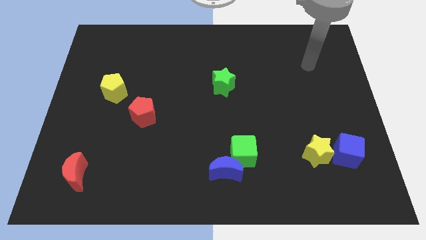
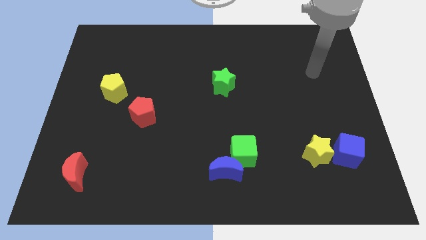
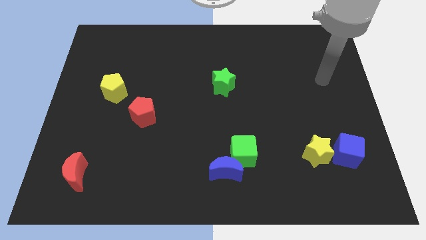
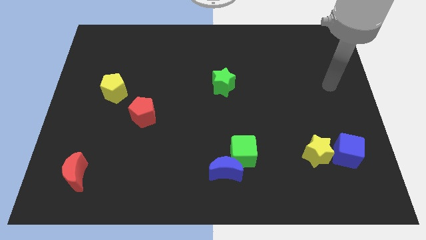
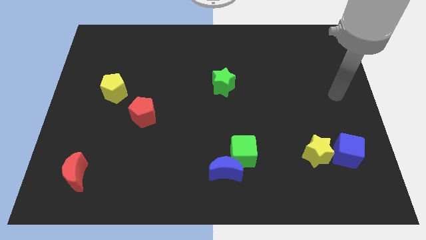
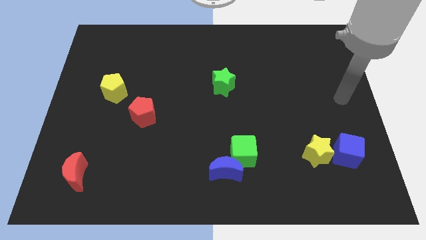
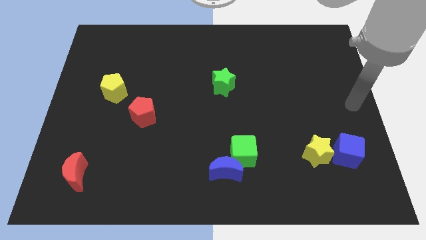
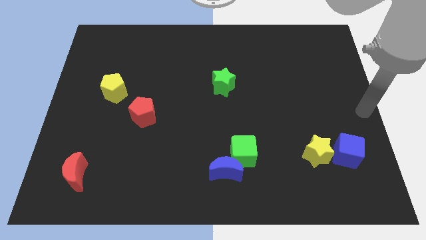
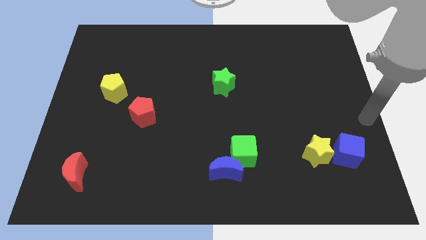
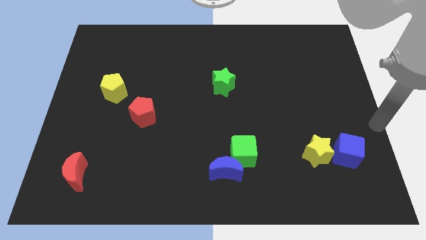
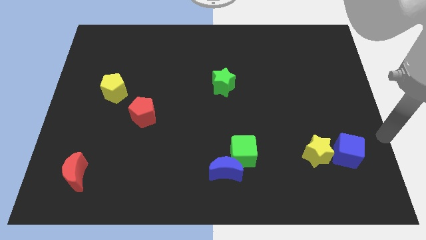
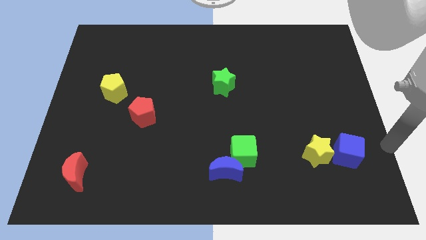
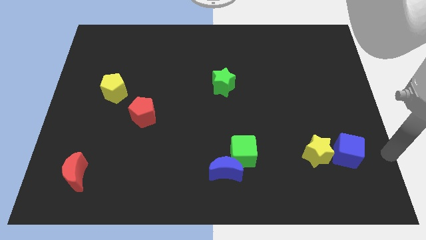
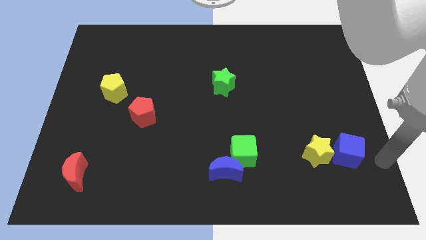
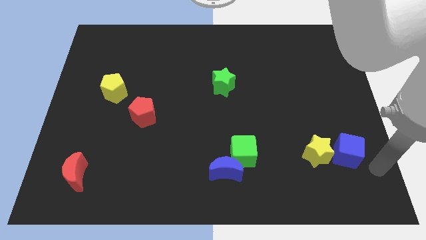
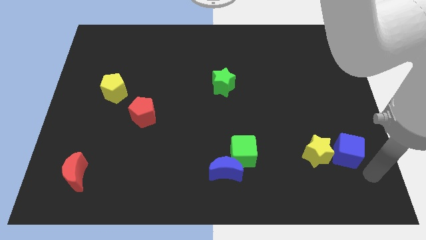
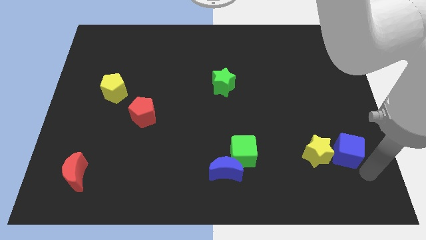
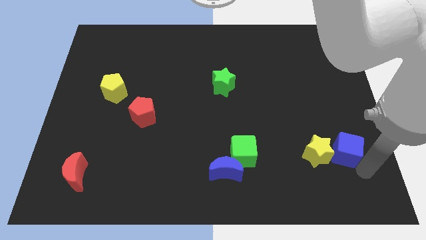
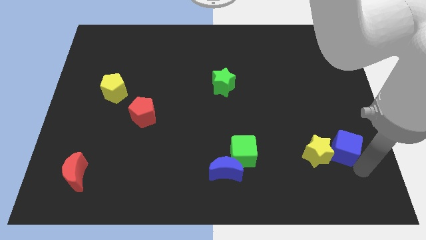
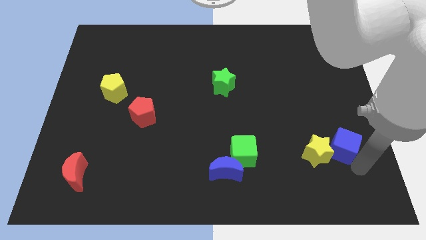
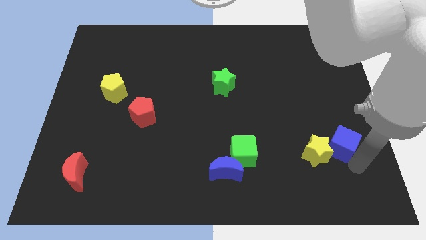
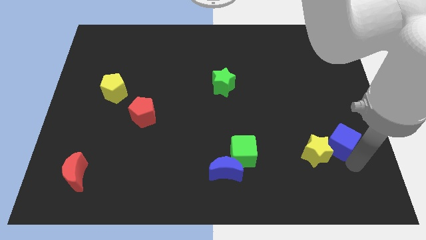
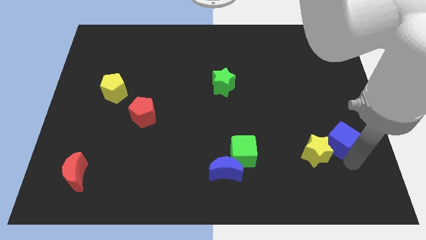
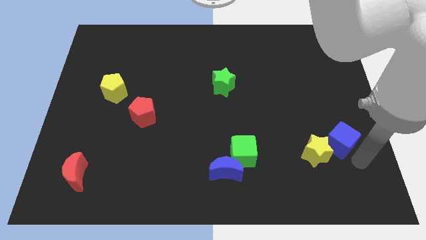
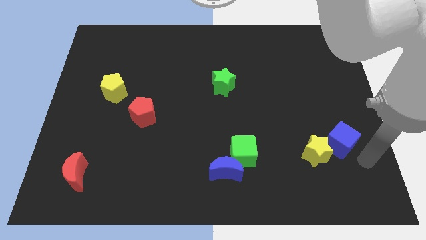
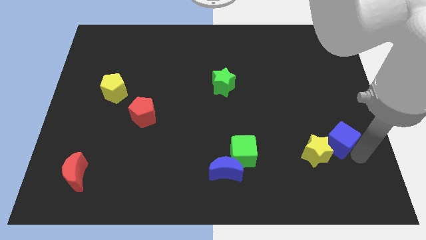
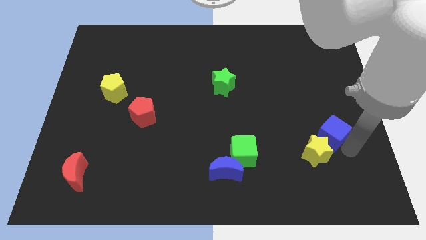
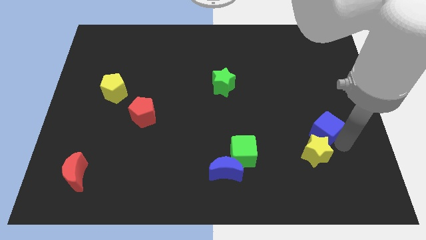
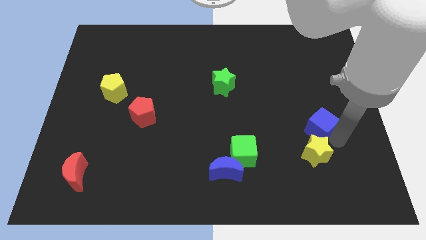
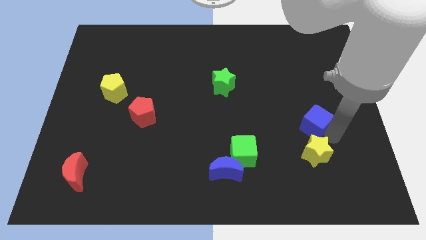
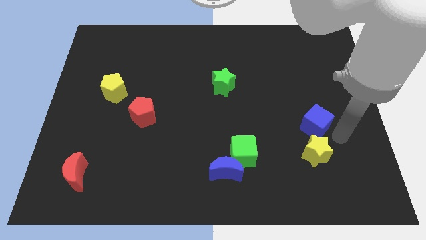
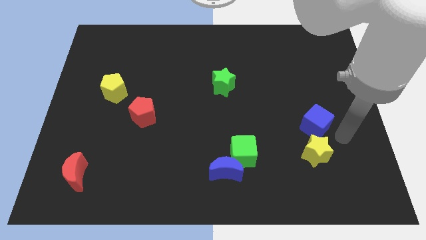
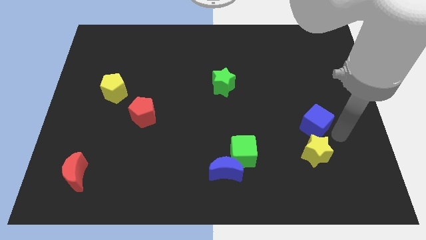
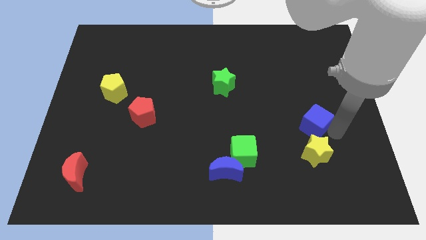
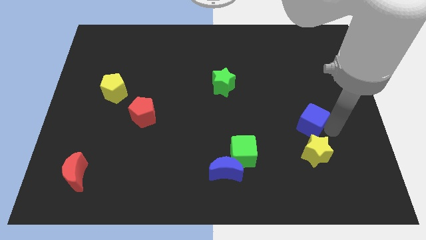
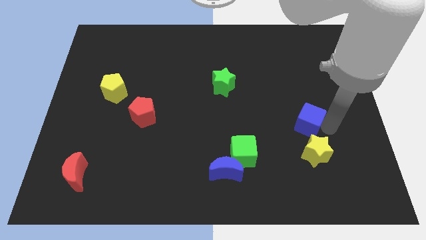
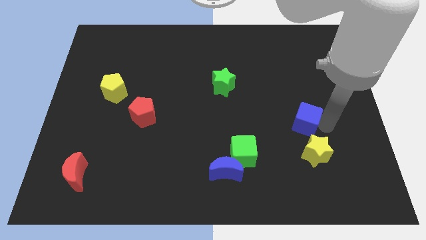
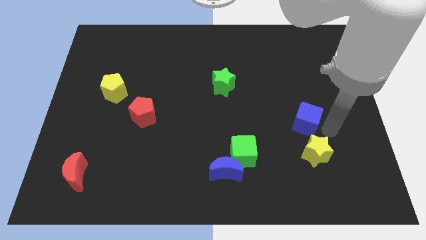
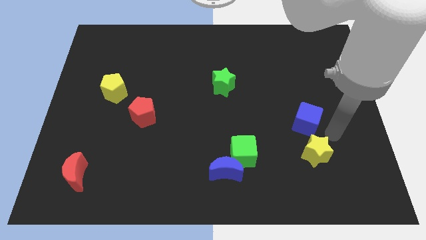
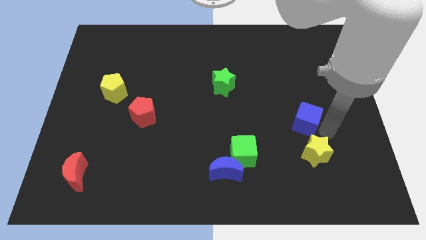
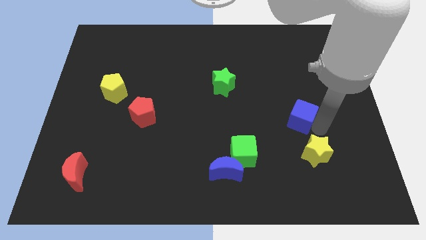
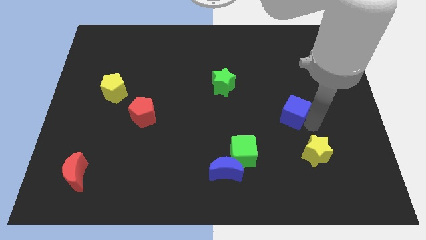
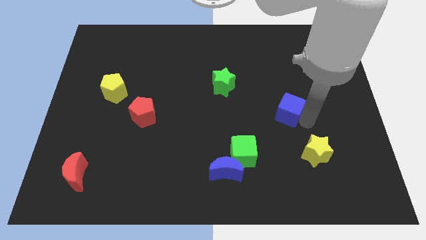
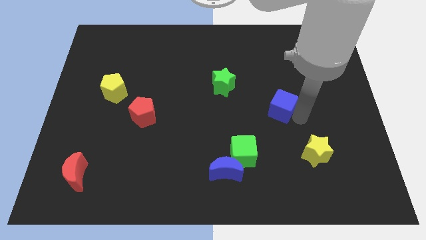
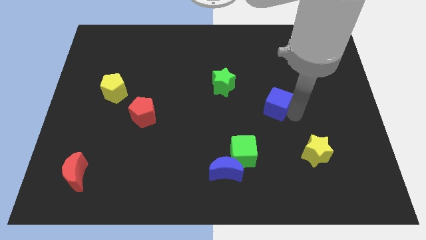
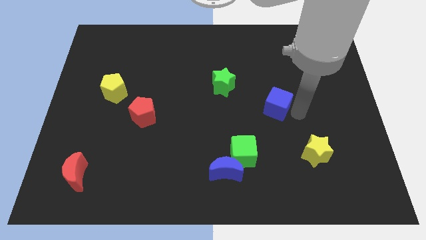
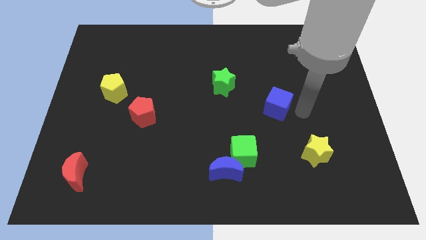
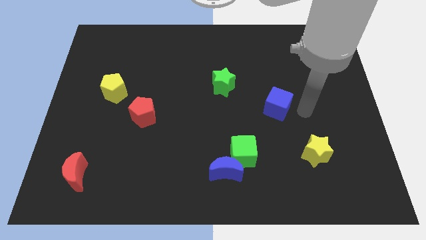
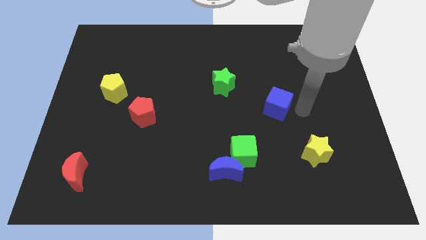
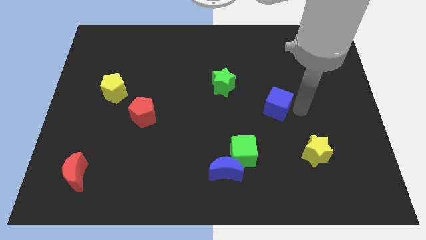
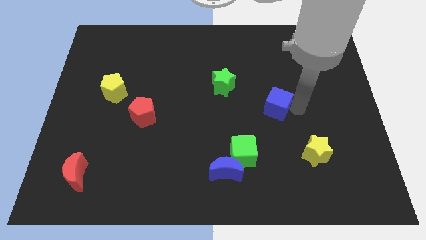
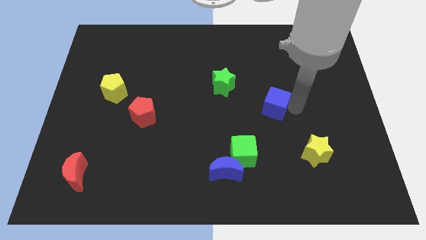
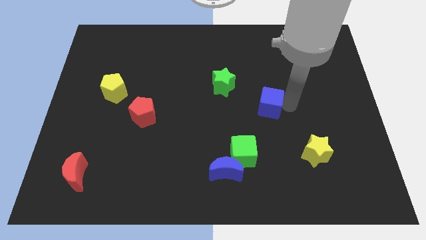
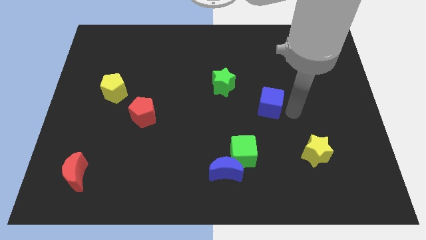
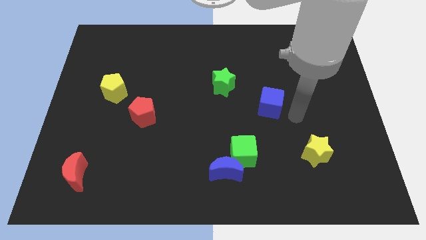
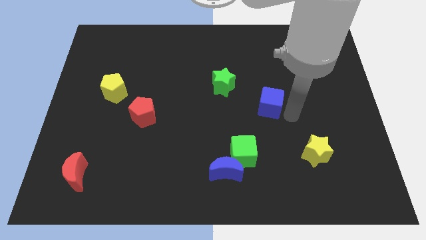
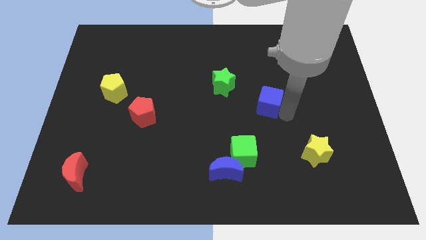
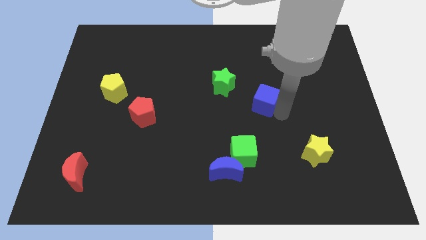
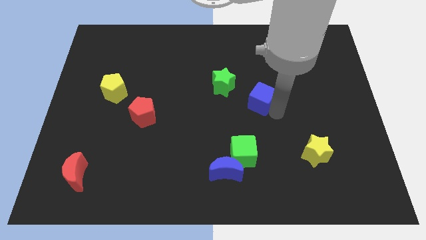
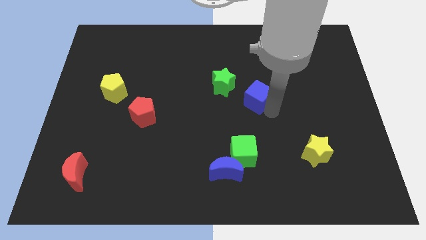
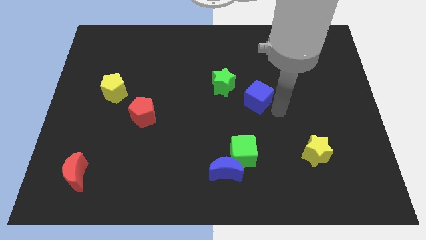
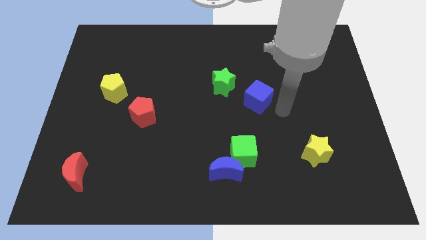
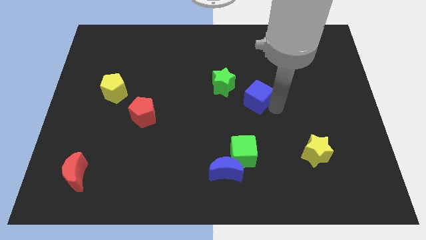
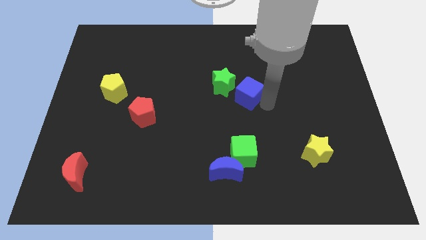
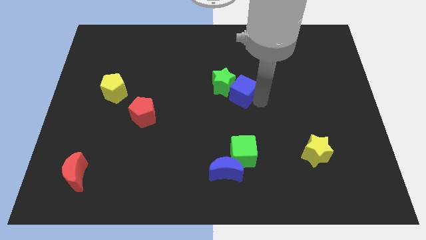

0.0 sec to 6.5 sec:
move the blue cube to the green star

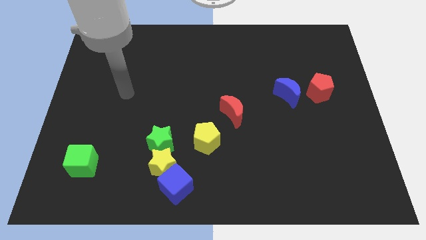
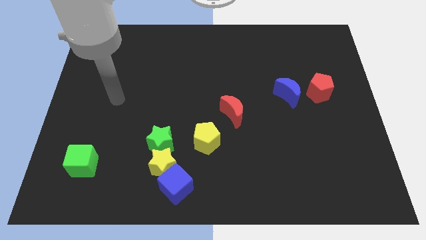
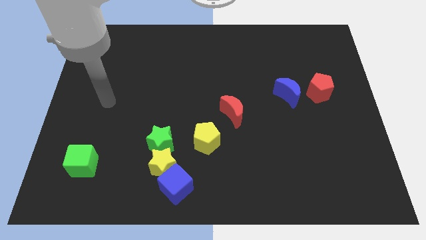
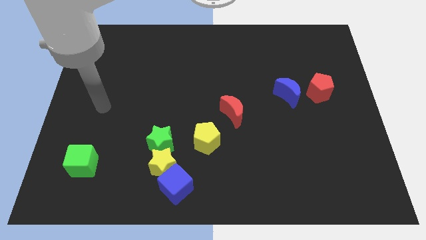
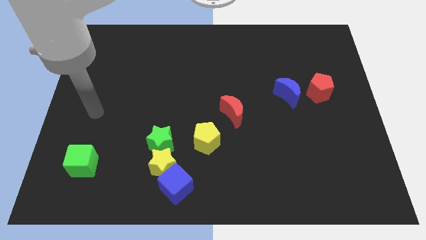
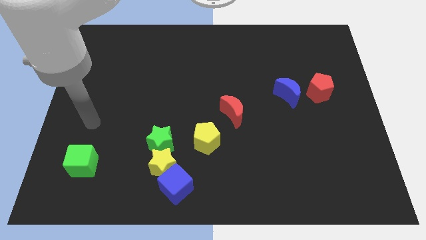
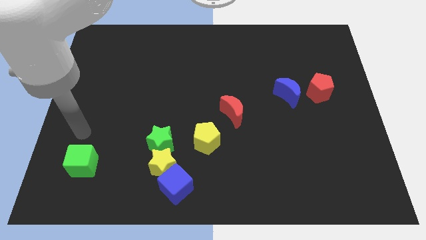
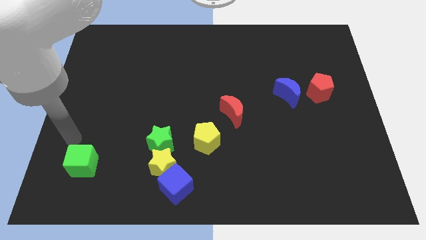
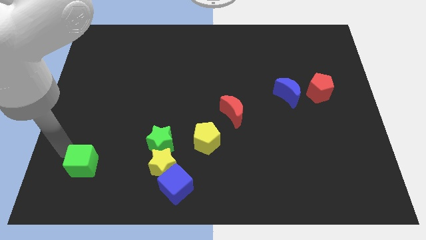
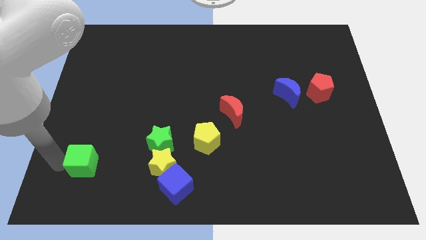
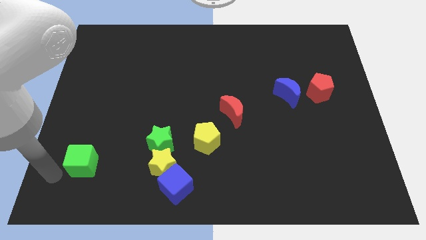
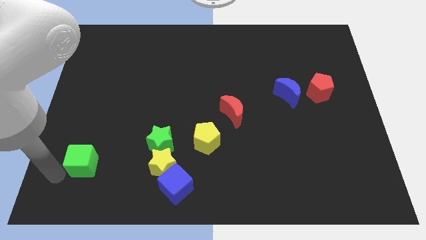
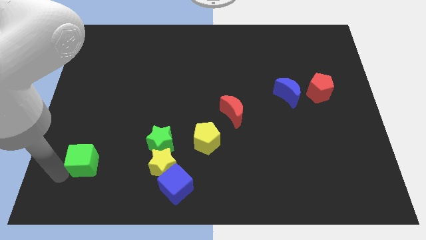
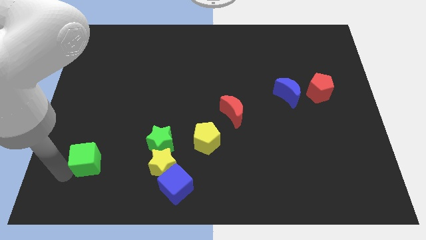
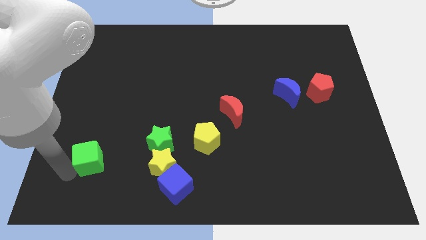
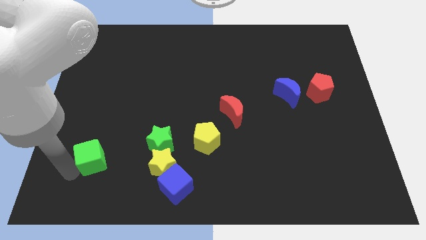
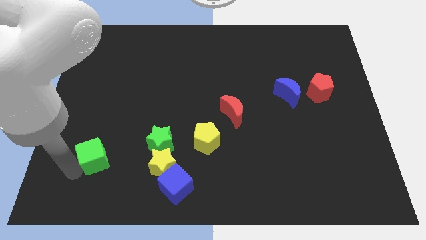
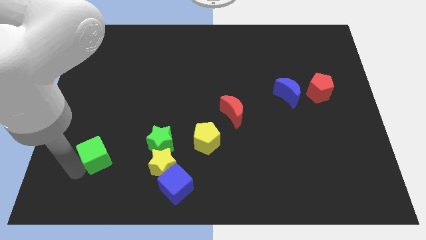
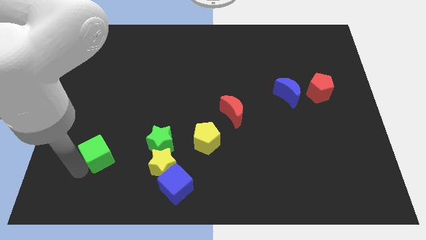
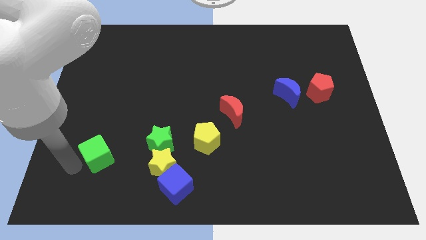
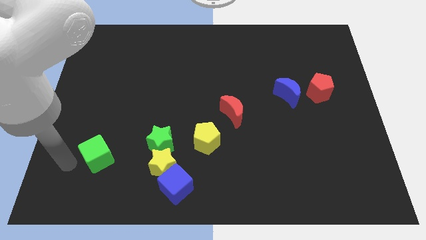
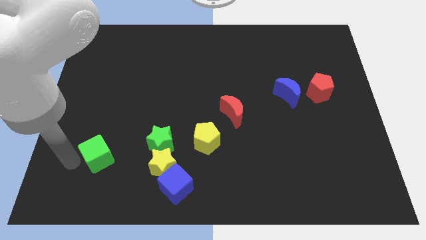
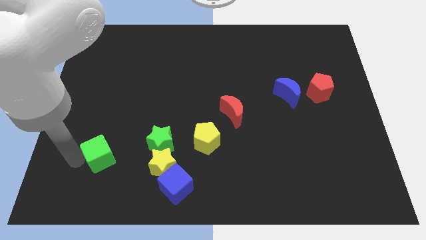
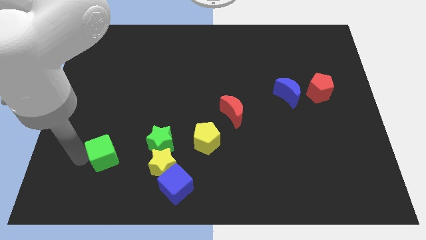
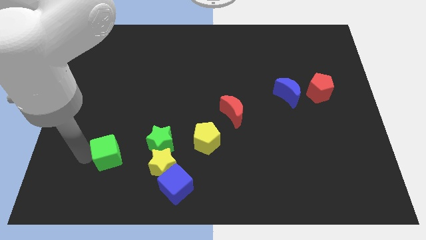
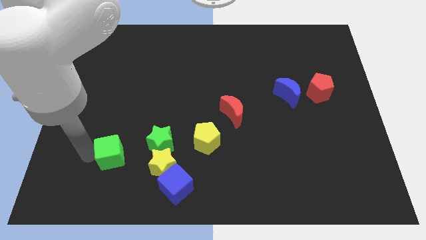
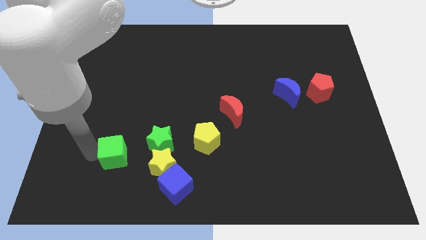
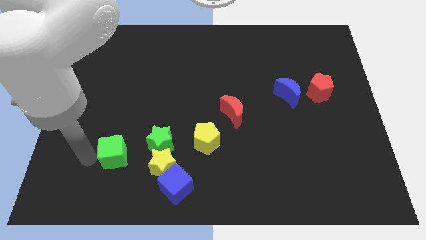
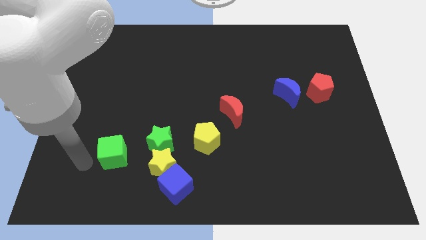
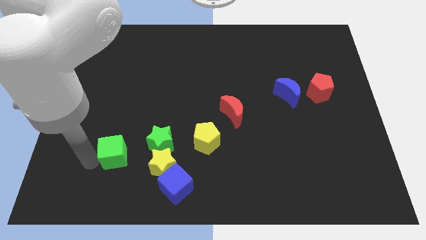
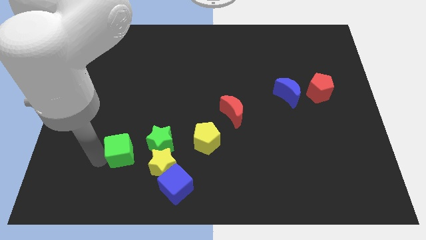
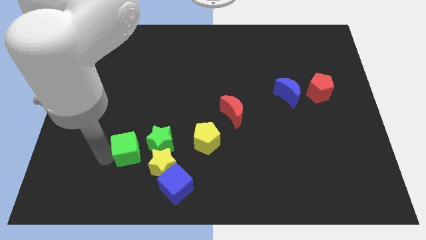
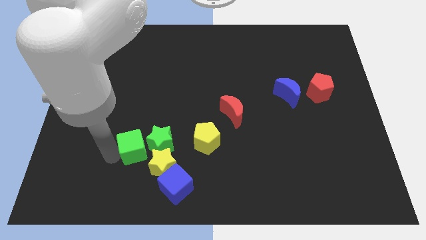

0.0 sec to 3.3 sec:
put the green cube to the green star
